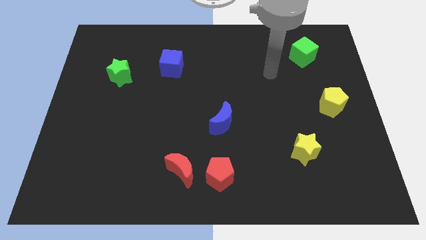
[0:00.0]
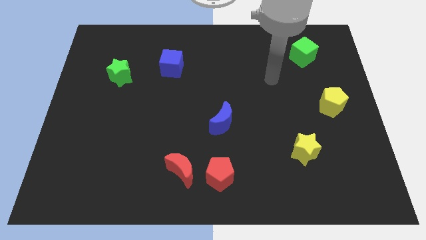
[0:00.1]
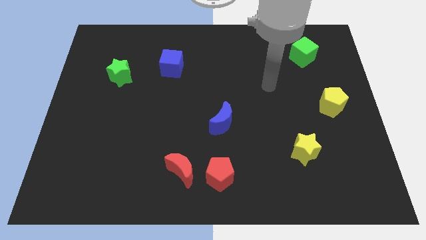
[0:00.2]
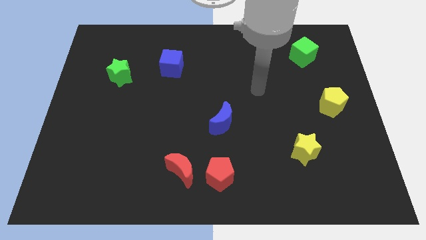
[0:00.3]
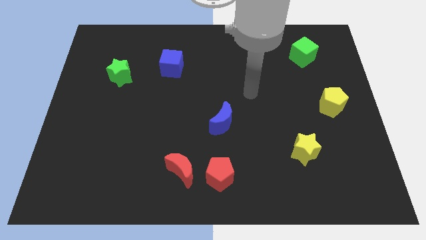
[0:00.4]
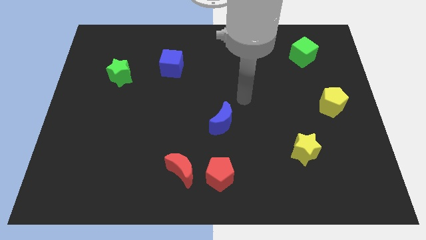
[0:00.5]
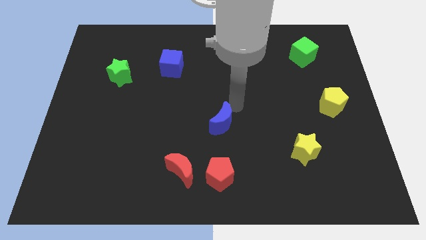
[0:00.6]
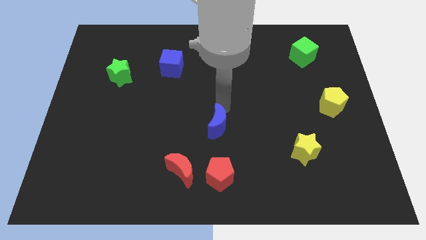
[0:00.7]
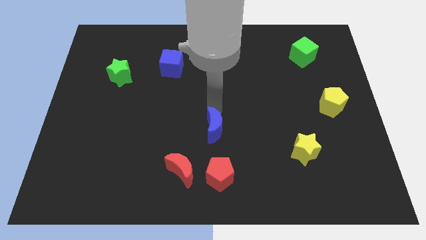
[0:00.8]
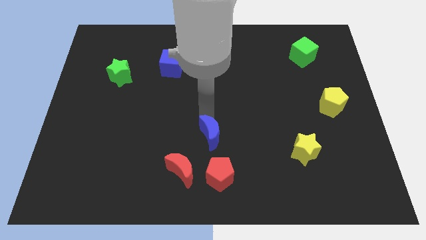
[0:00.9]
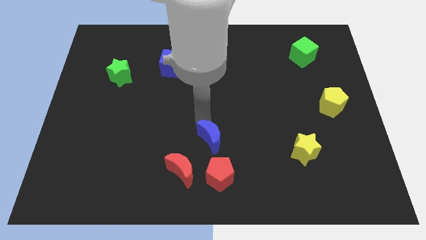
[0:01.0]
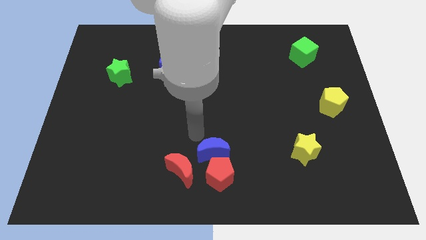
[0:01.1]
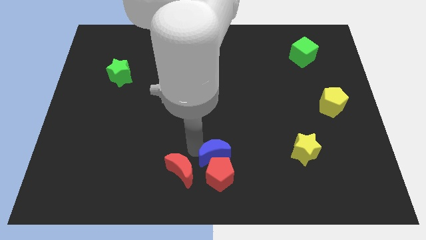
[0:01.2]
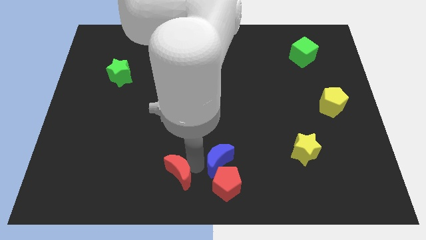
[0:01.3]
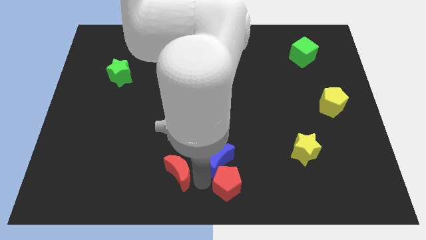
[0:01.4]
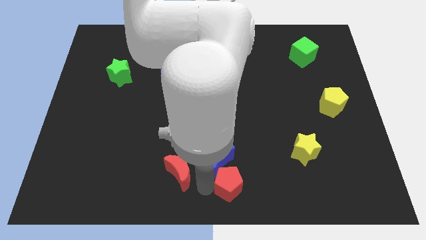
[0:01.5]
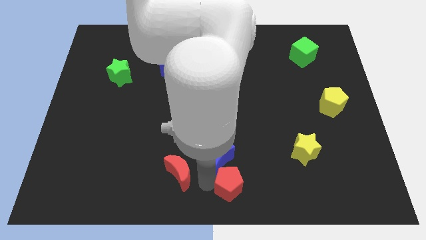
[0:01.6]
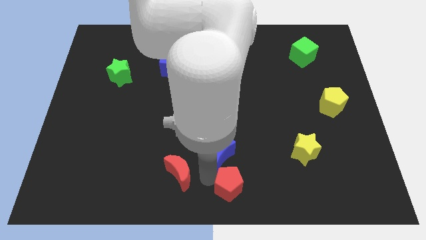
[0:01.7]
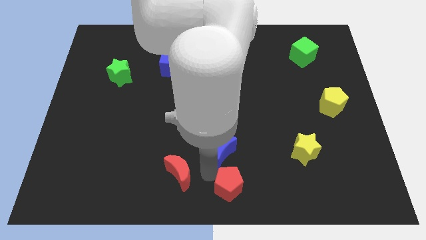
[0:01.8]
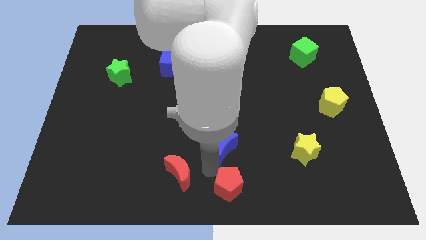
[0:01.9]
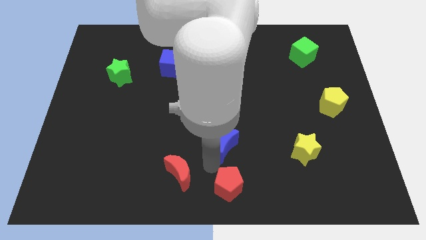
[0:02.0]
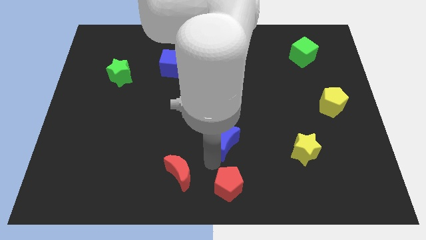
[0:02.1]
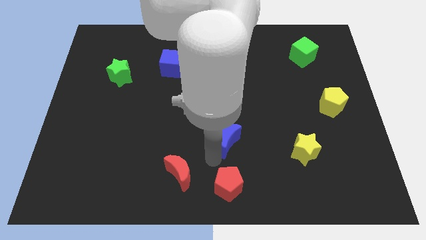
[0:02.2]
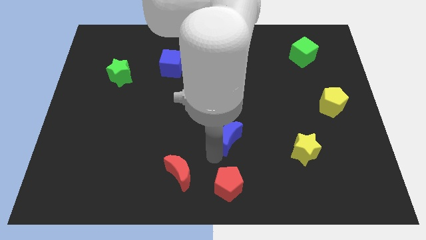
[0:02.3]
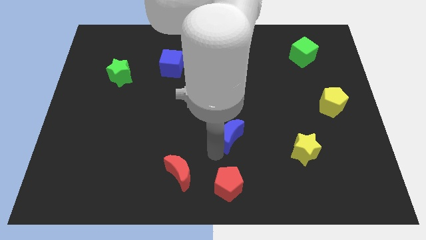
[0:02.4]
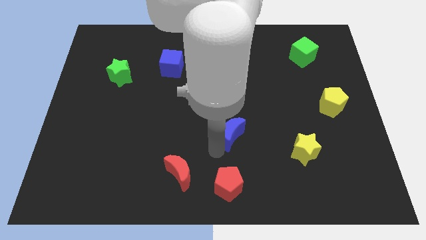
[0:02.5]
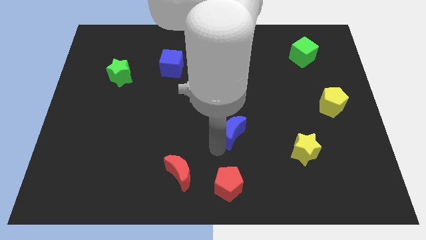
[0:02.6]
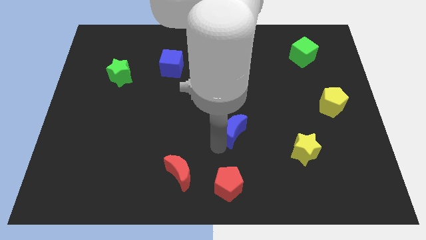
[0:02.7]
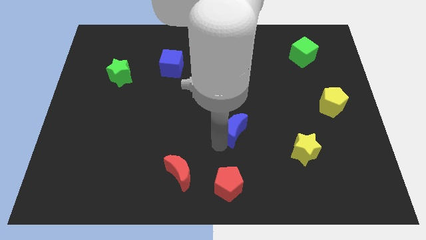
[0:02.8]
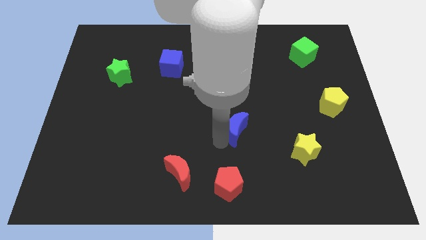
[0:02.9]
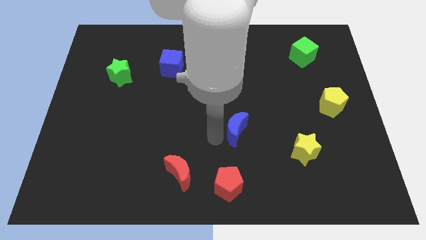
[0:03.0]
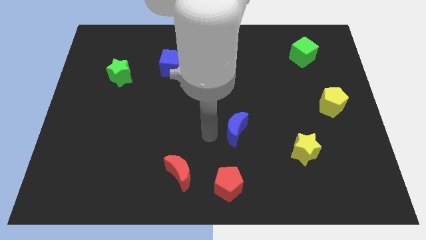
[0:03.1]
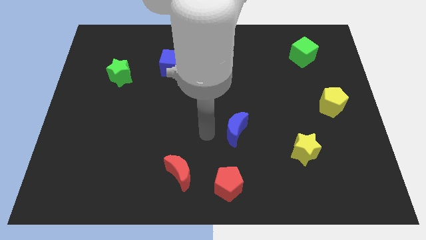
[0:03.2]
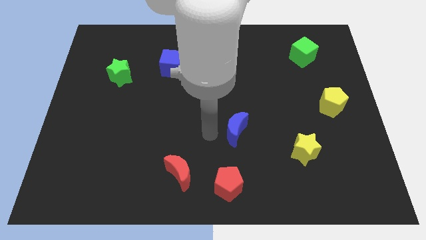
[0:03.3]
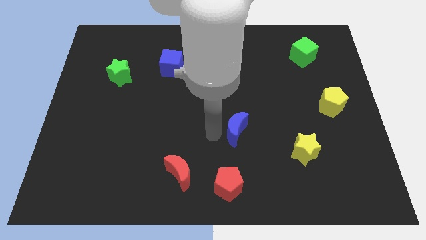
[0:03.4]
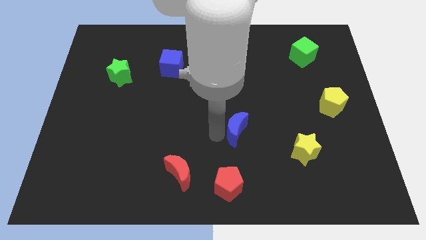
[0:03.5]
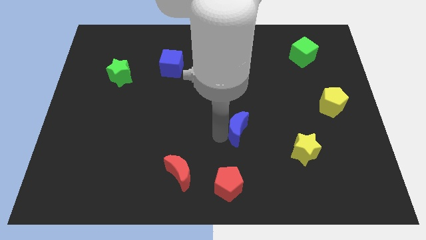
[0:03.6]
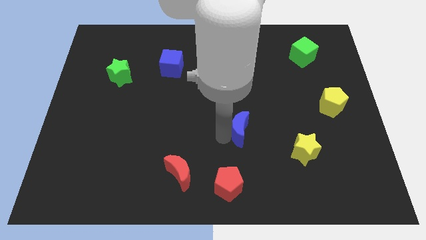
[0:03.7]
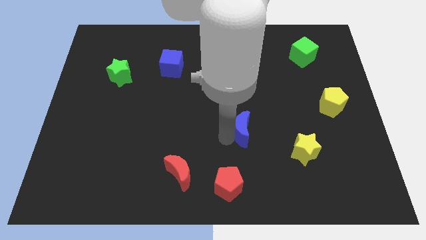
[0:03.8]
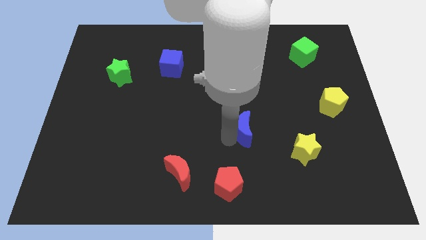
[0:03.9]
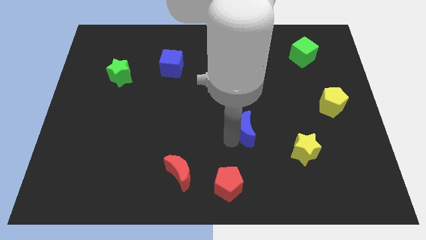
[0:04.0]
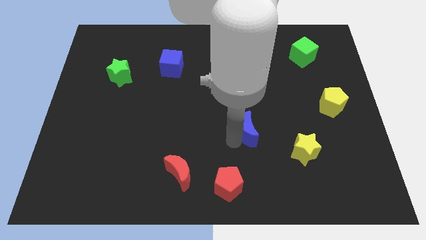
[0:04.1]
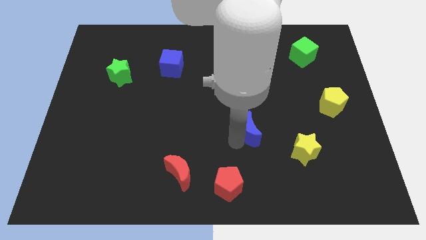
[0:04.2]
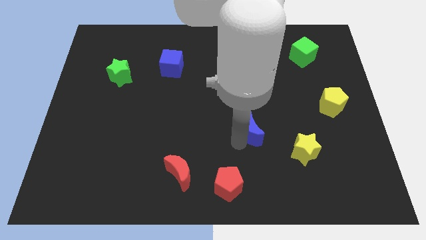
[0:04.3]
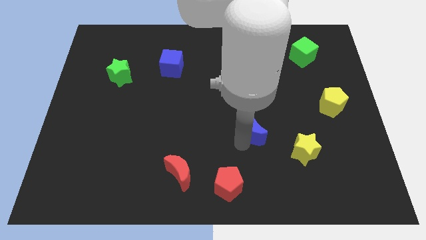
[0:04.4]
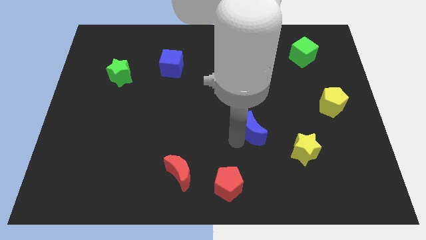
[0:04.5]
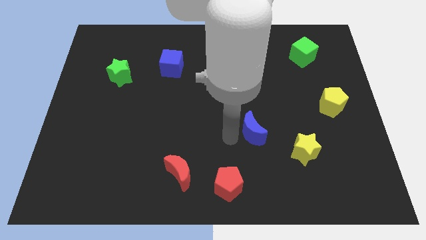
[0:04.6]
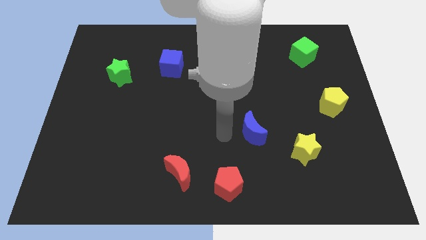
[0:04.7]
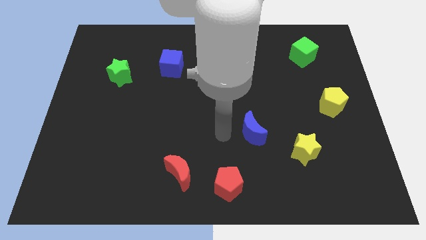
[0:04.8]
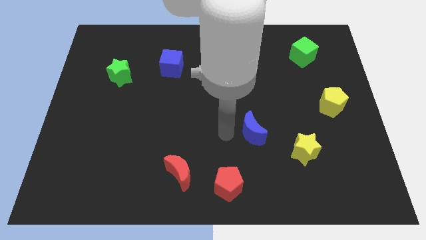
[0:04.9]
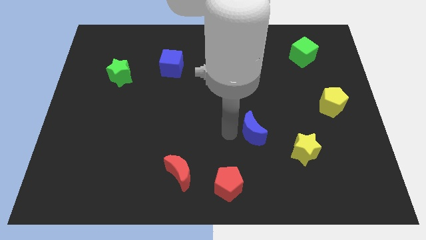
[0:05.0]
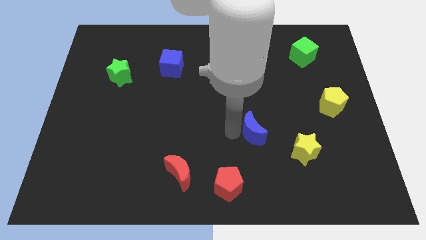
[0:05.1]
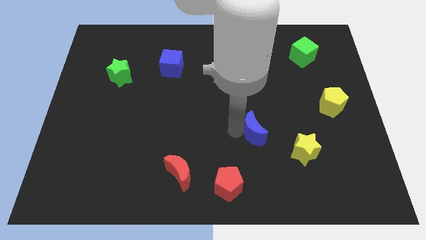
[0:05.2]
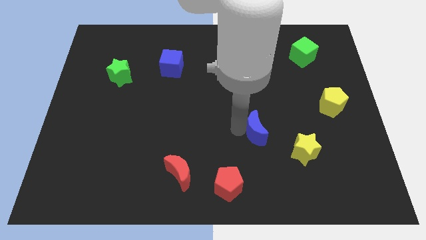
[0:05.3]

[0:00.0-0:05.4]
move the blue moon diagonally up and to the left of the yellow star

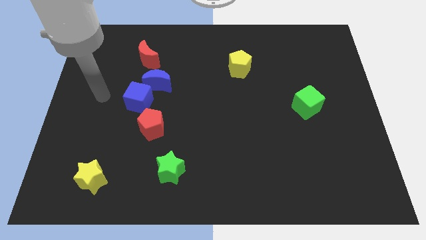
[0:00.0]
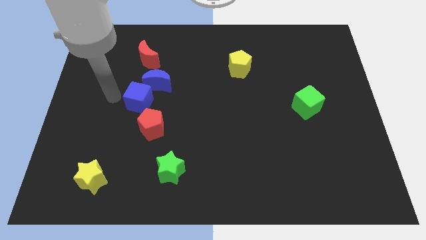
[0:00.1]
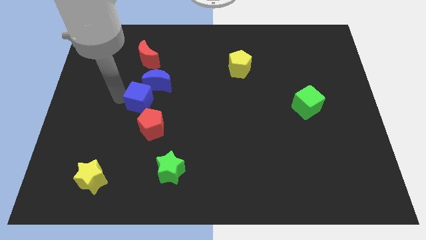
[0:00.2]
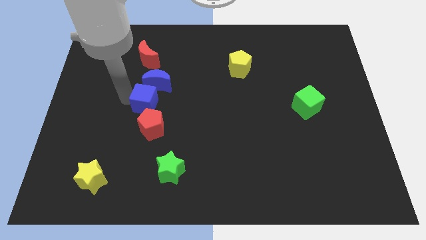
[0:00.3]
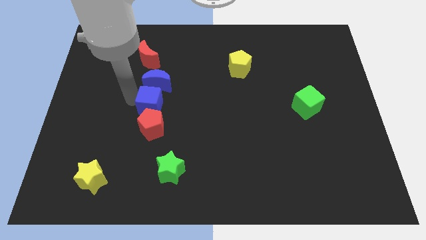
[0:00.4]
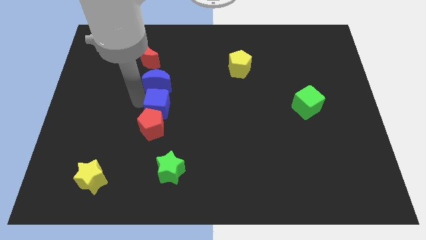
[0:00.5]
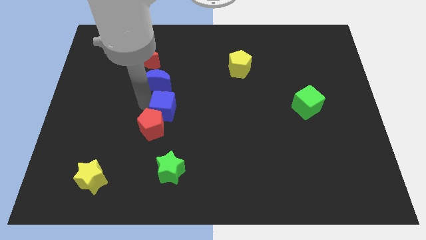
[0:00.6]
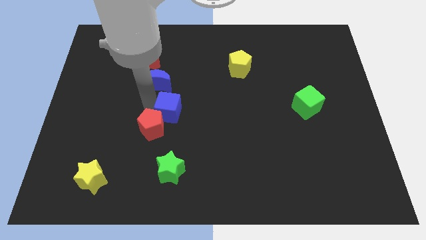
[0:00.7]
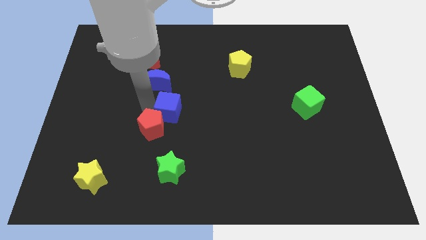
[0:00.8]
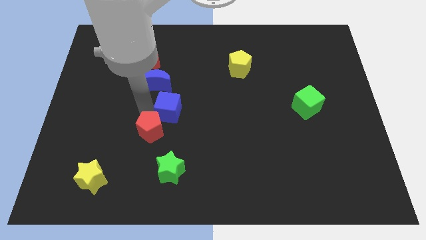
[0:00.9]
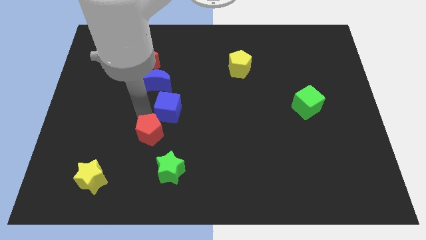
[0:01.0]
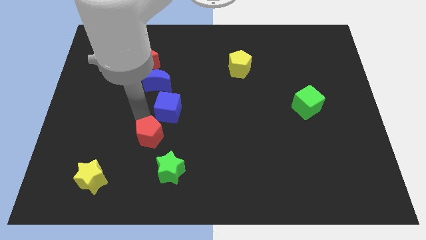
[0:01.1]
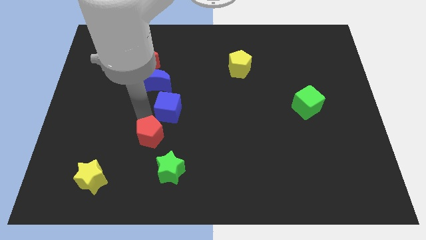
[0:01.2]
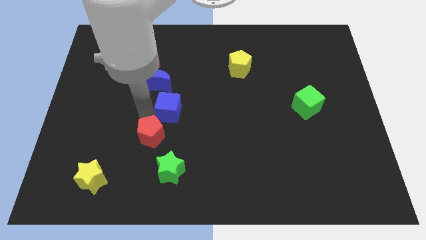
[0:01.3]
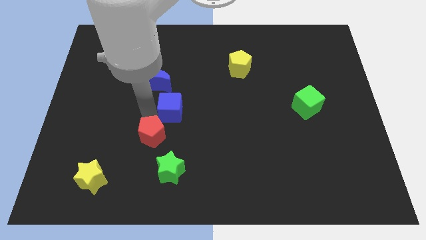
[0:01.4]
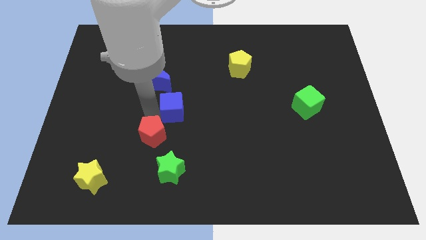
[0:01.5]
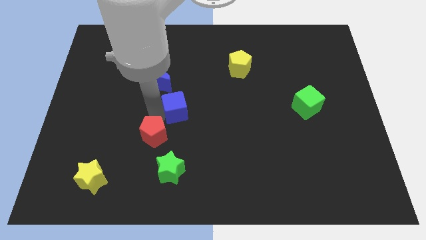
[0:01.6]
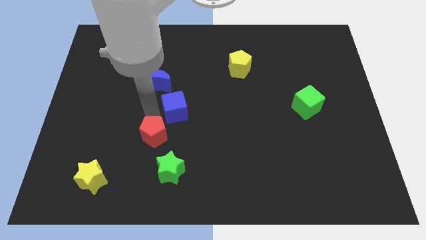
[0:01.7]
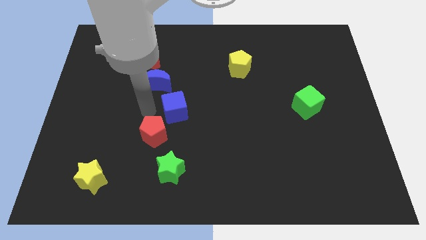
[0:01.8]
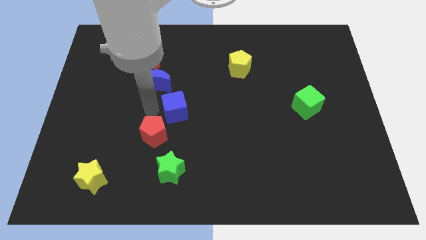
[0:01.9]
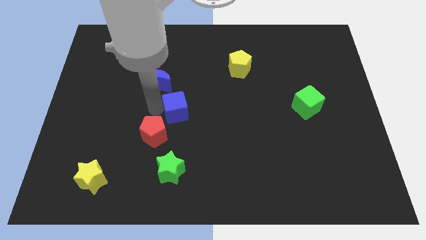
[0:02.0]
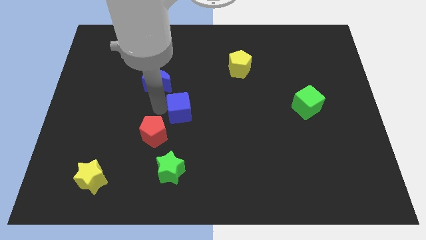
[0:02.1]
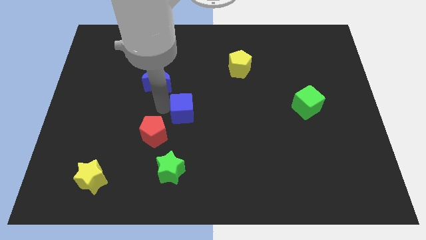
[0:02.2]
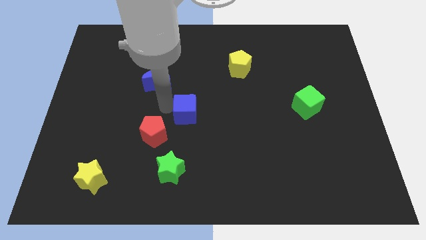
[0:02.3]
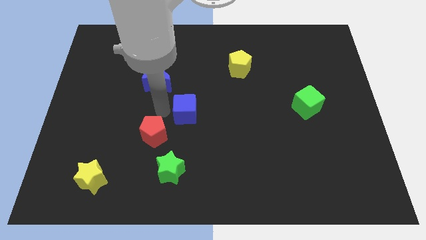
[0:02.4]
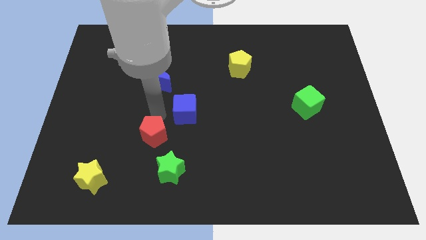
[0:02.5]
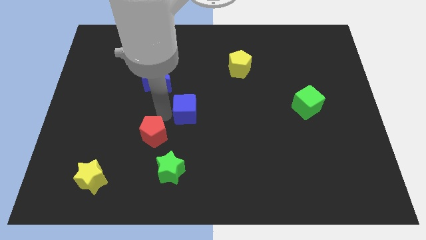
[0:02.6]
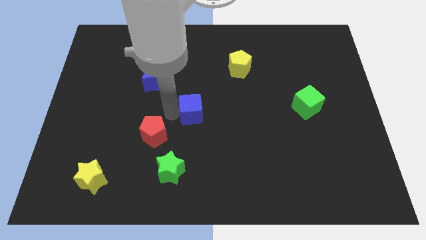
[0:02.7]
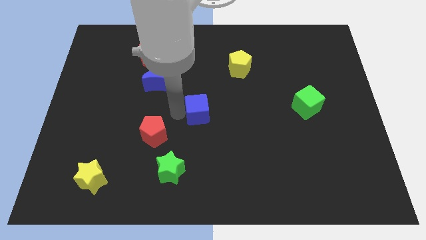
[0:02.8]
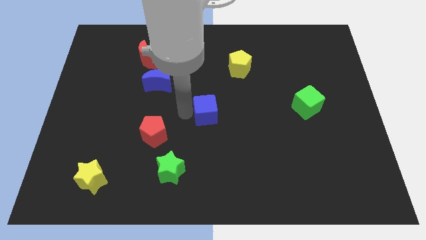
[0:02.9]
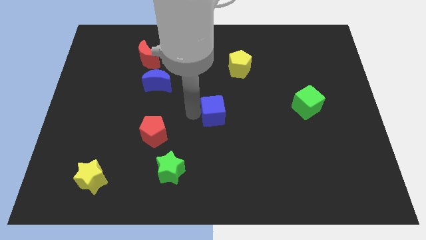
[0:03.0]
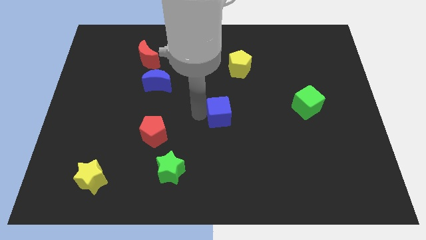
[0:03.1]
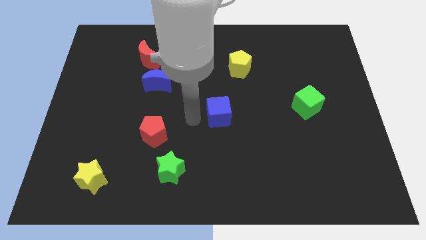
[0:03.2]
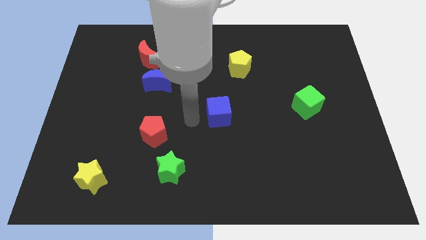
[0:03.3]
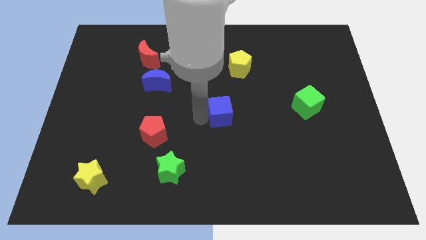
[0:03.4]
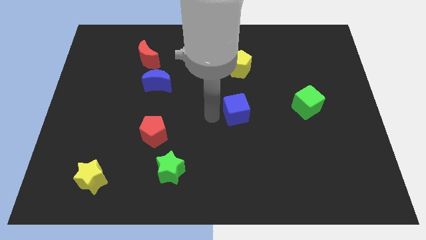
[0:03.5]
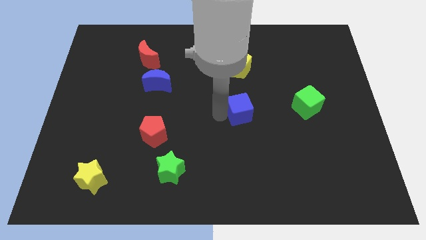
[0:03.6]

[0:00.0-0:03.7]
move the blue cube just left of the green cube
